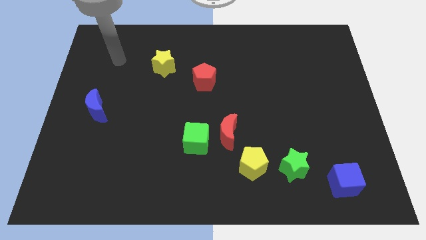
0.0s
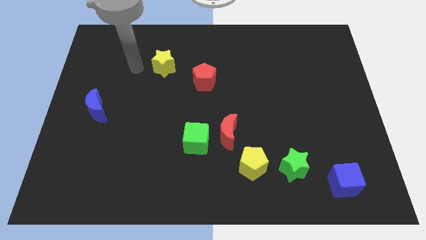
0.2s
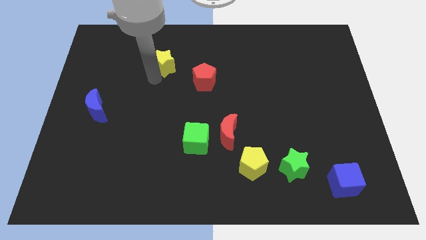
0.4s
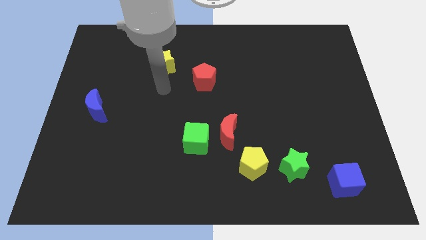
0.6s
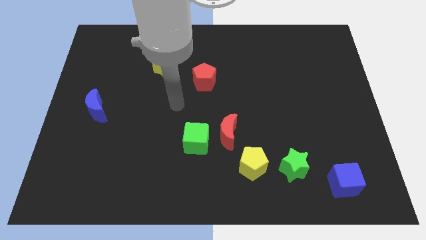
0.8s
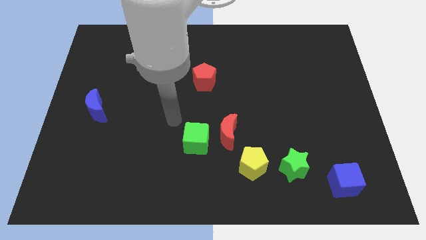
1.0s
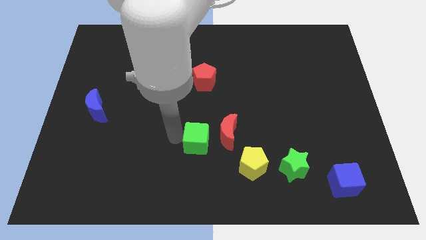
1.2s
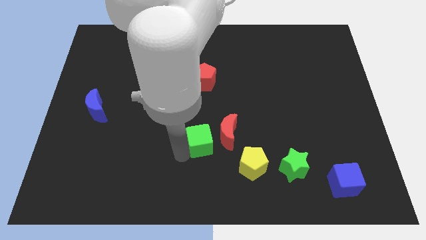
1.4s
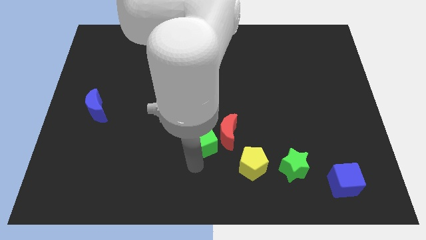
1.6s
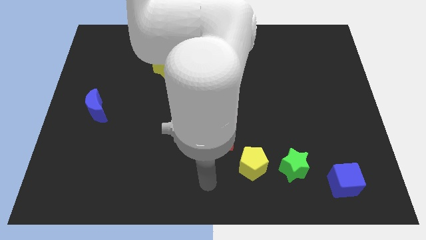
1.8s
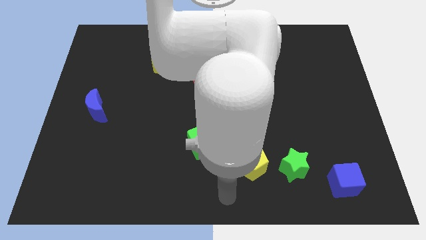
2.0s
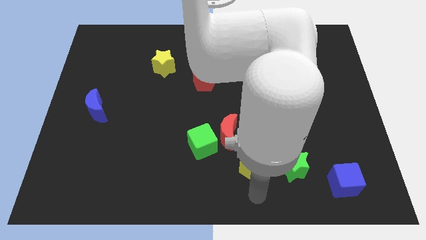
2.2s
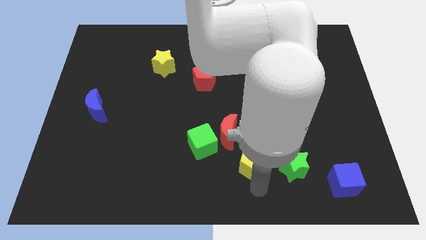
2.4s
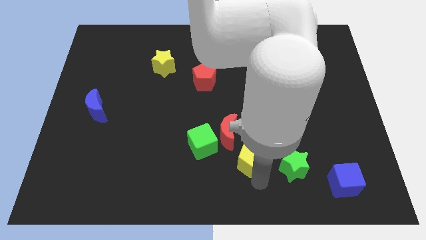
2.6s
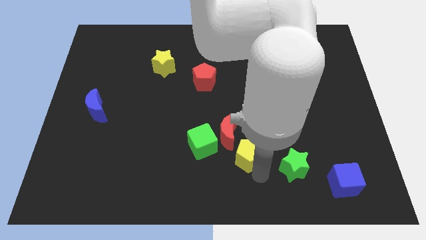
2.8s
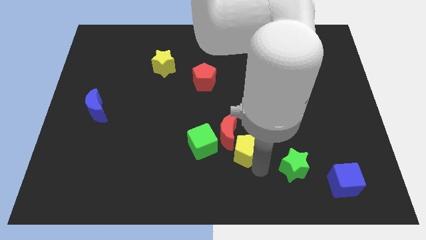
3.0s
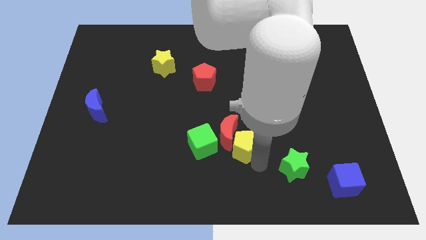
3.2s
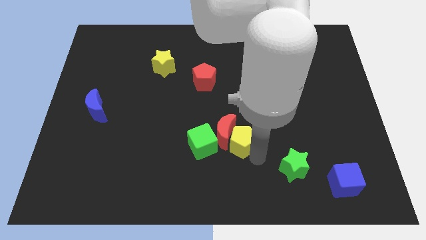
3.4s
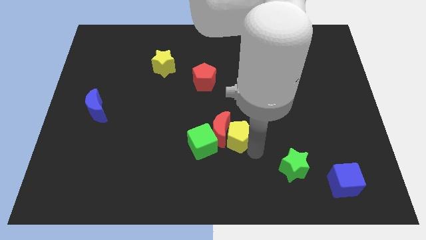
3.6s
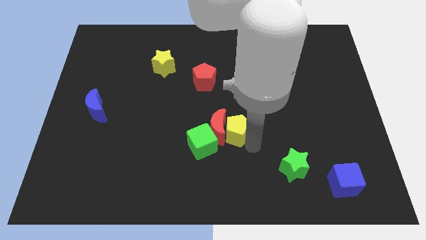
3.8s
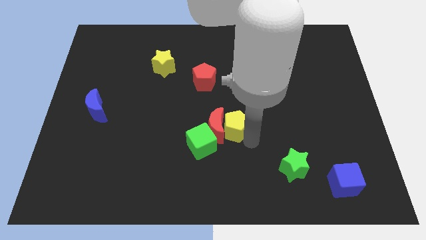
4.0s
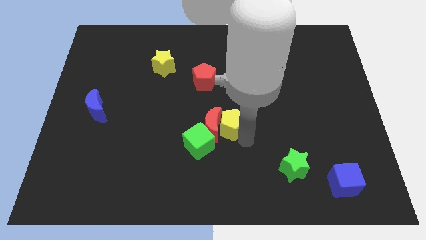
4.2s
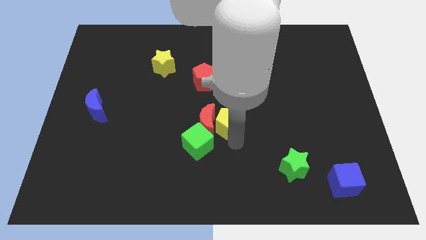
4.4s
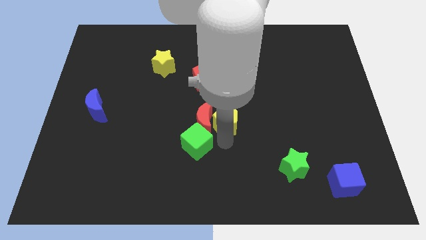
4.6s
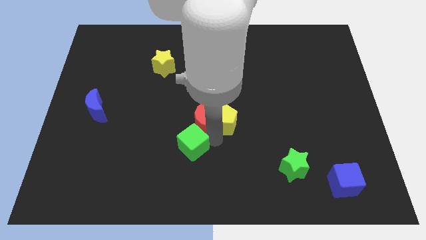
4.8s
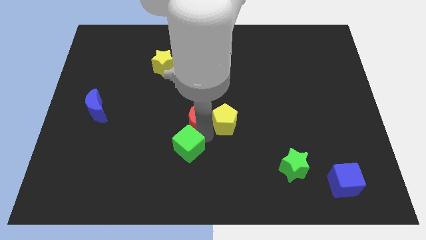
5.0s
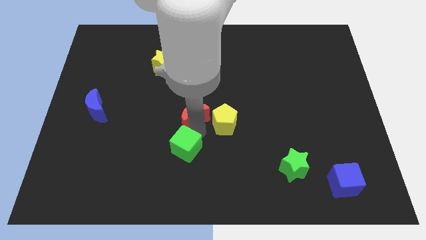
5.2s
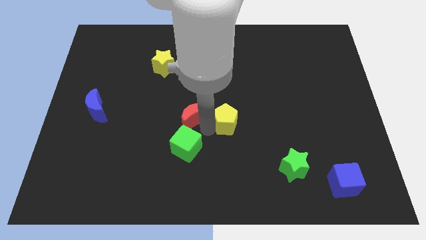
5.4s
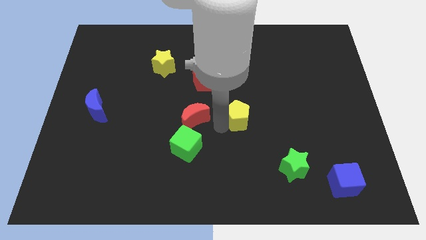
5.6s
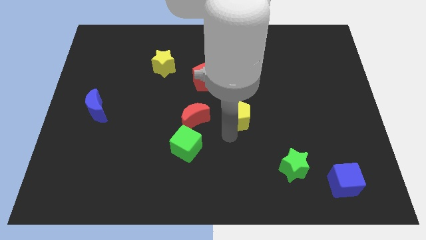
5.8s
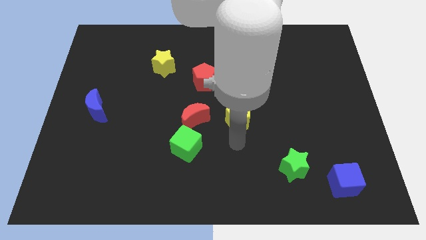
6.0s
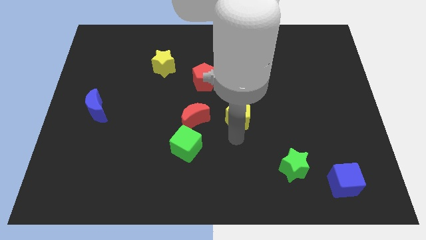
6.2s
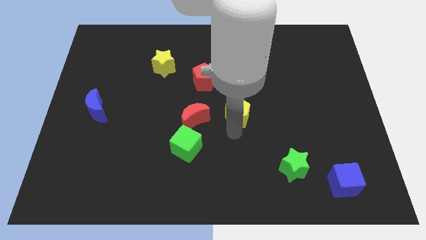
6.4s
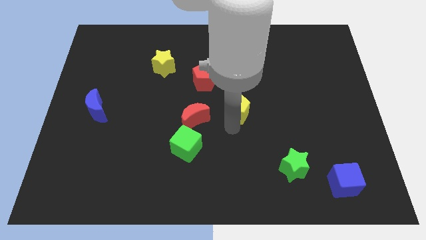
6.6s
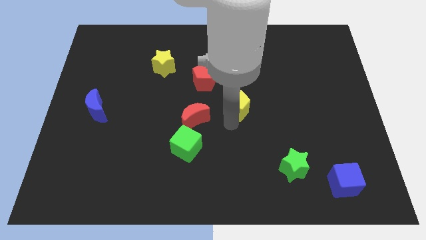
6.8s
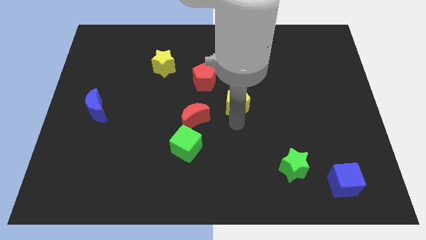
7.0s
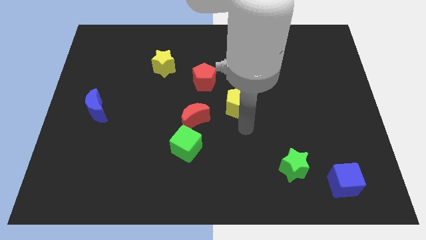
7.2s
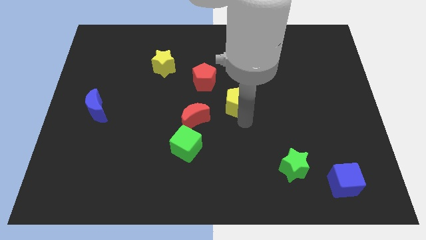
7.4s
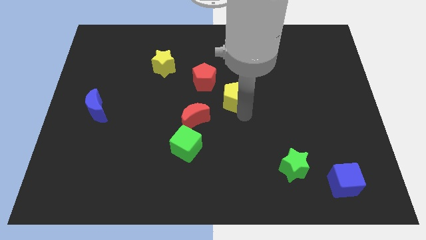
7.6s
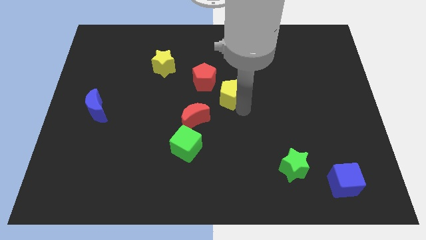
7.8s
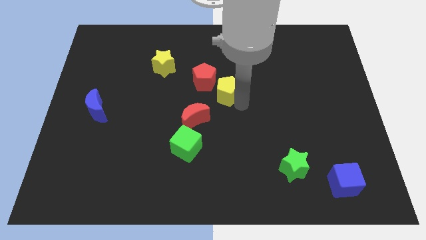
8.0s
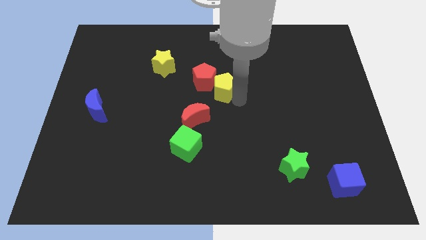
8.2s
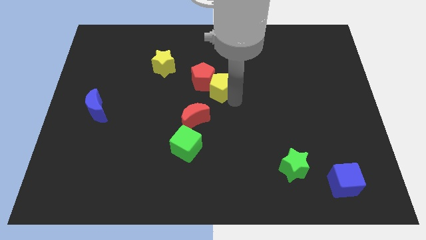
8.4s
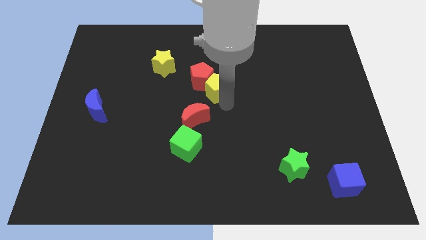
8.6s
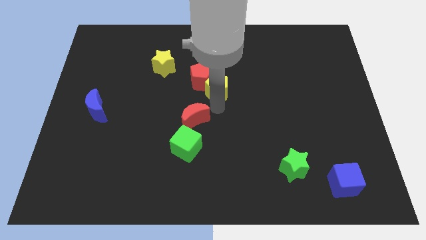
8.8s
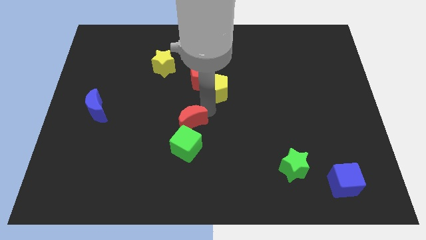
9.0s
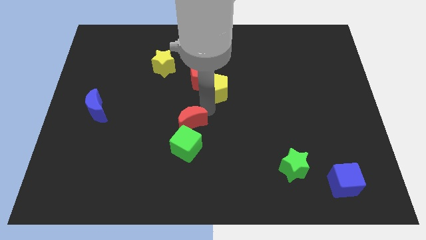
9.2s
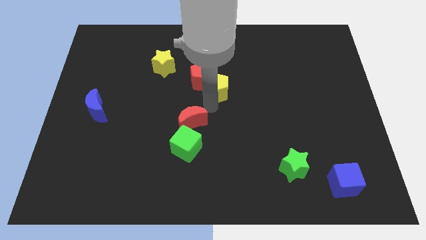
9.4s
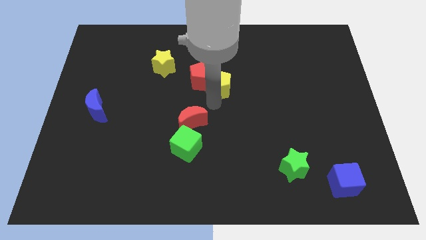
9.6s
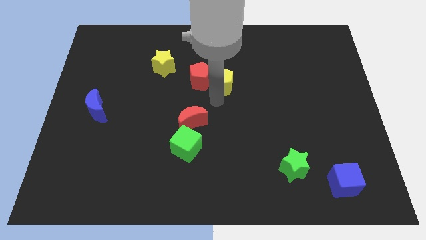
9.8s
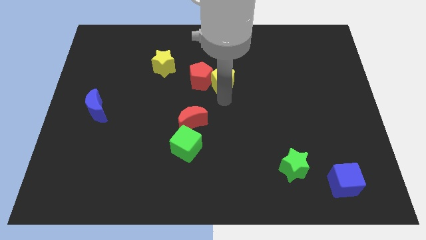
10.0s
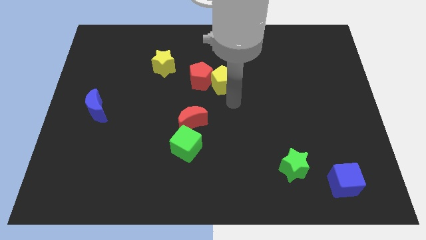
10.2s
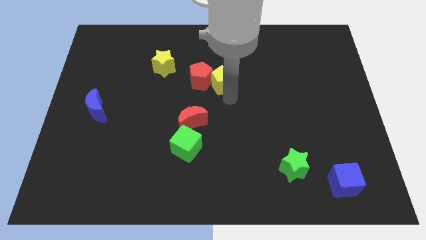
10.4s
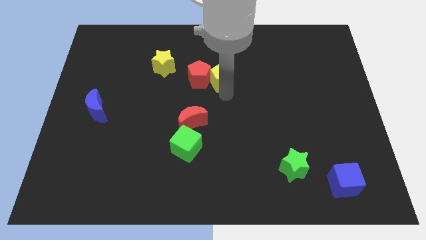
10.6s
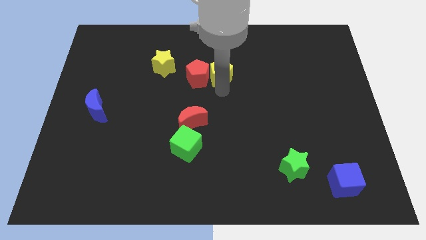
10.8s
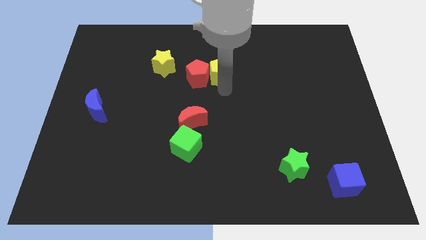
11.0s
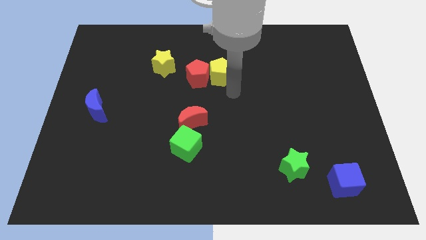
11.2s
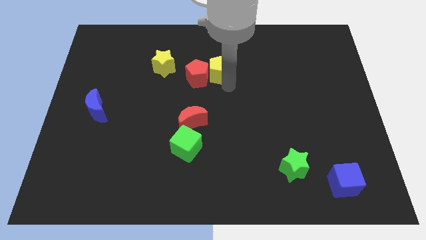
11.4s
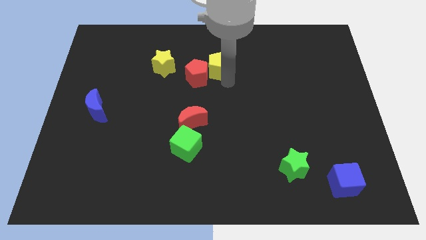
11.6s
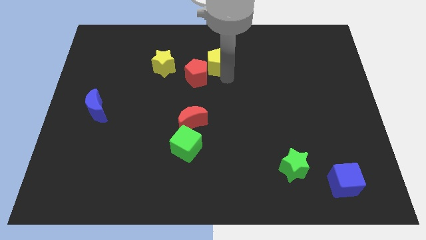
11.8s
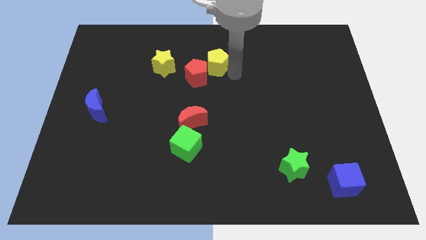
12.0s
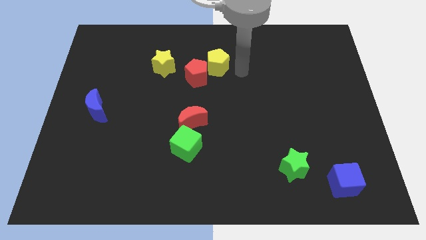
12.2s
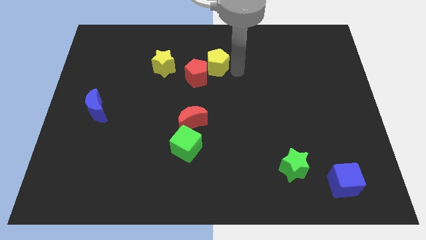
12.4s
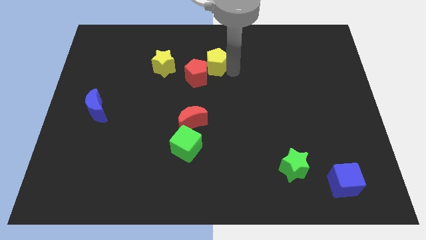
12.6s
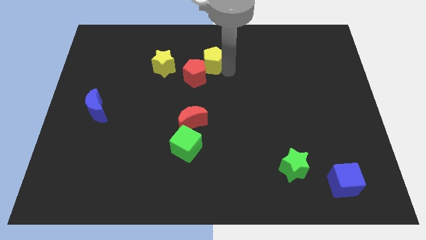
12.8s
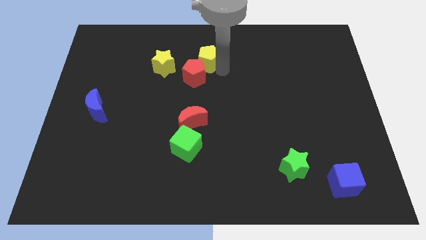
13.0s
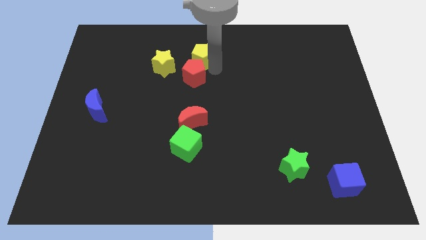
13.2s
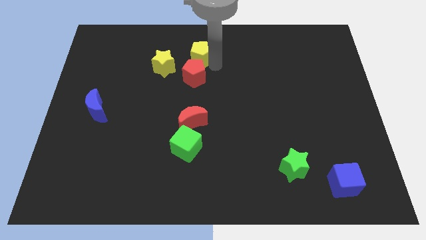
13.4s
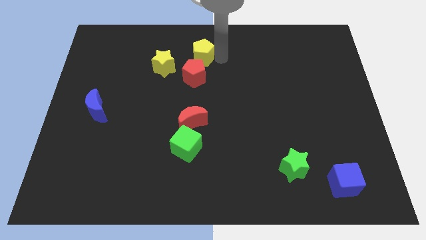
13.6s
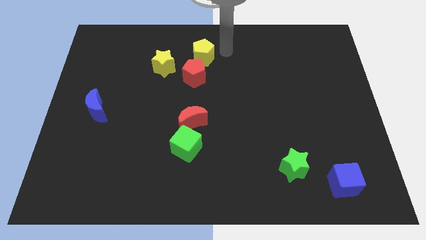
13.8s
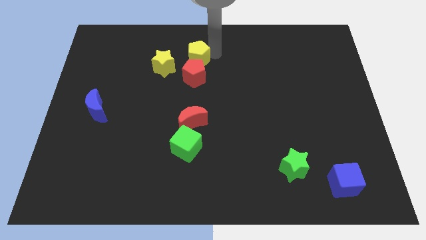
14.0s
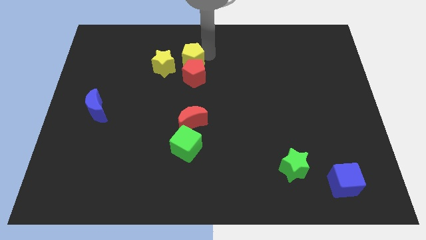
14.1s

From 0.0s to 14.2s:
put the yellow pentagon to the top left of the red pentagon
